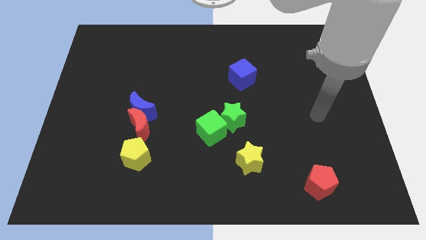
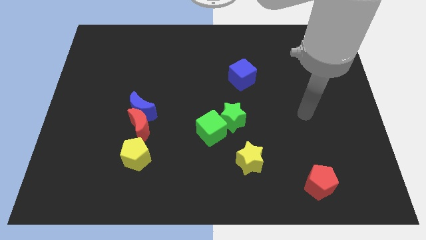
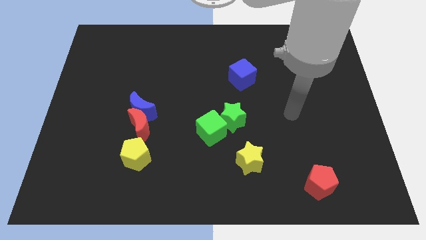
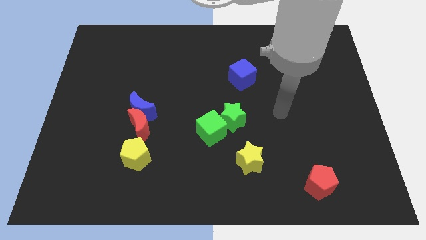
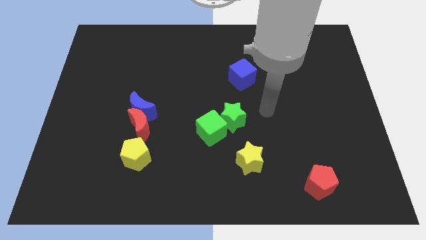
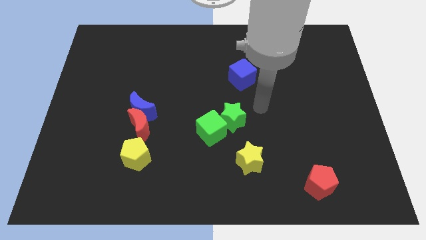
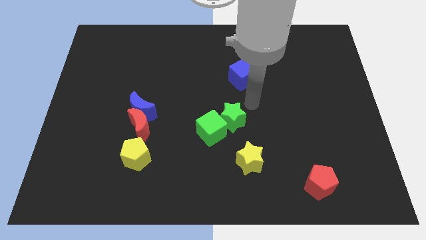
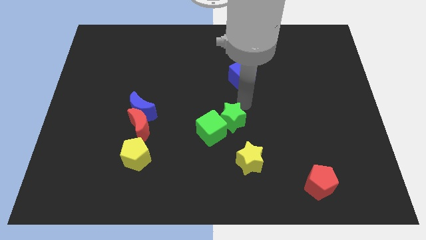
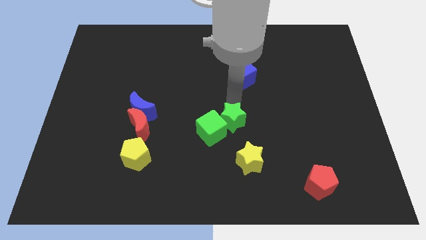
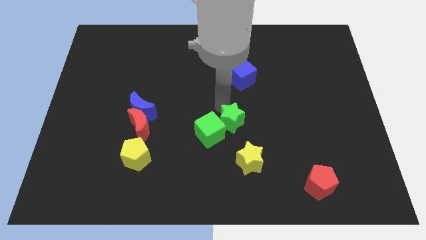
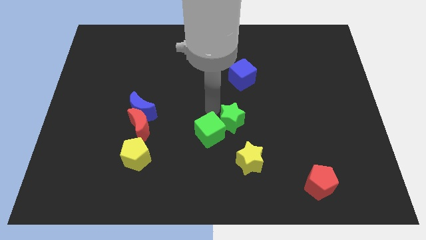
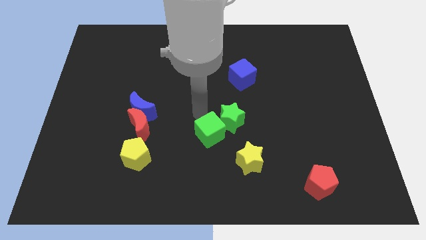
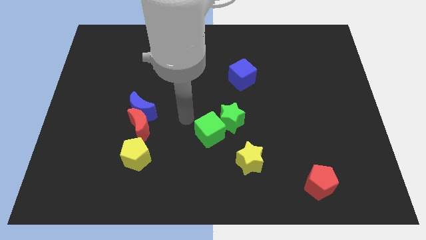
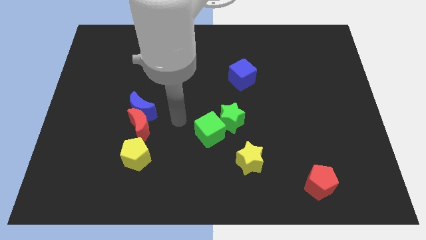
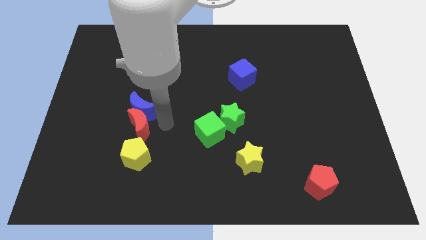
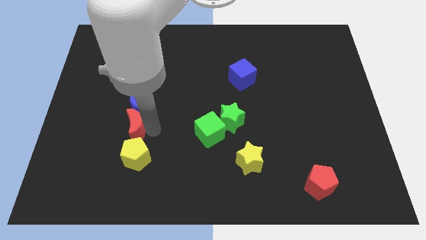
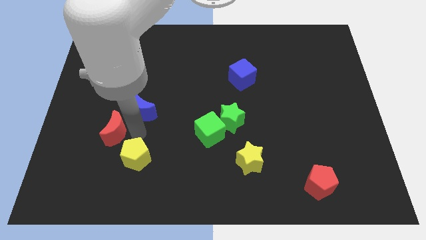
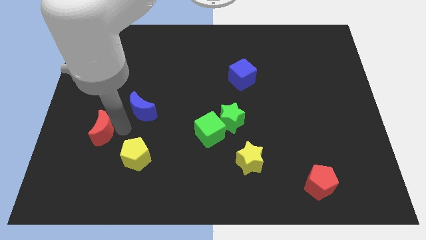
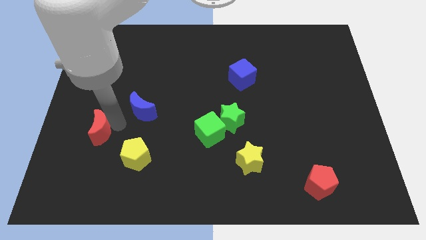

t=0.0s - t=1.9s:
move the blue moon away from the red moon

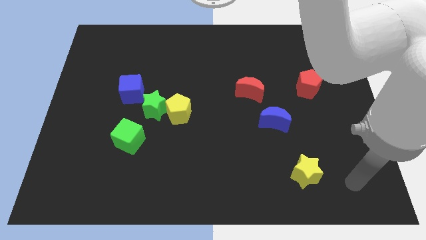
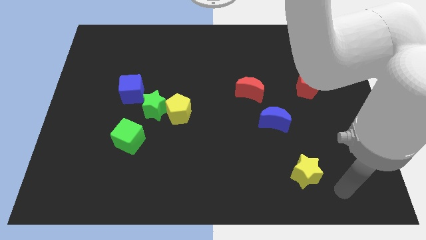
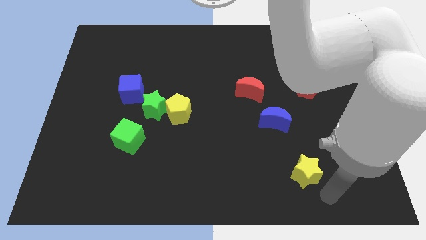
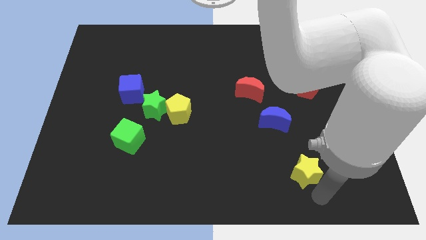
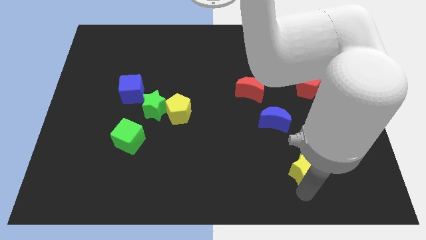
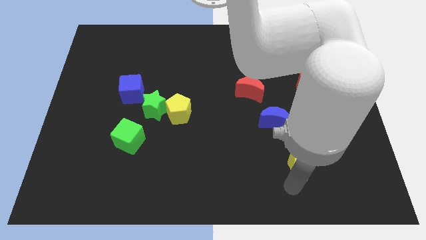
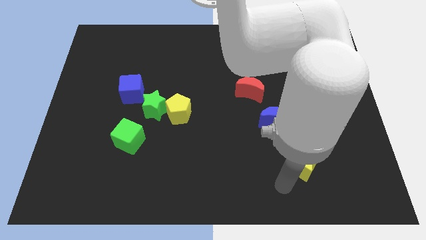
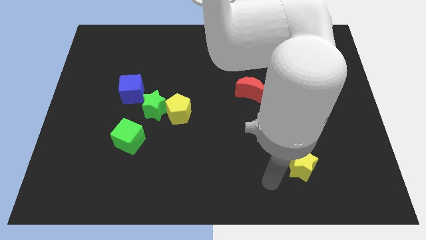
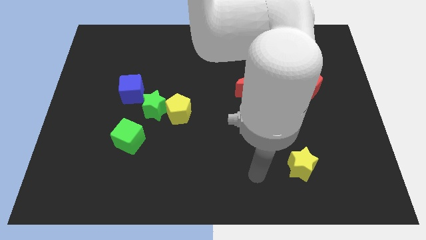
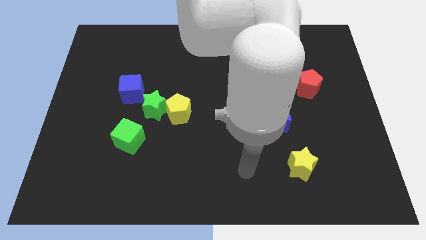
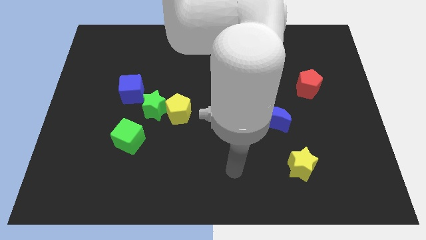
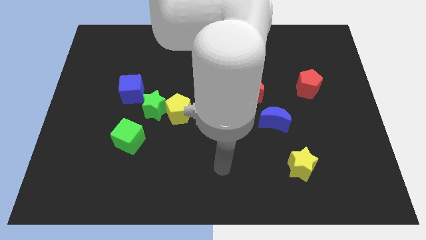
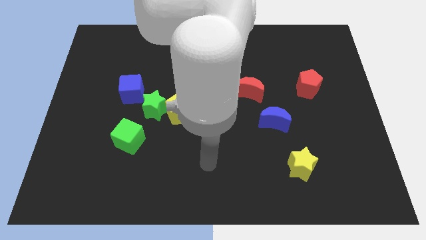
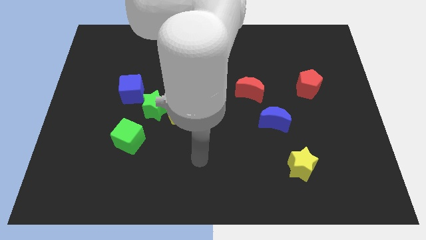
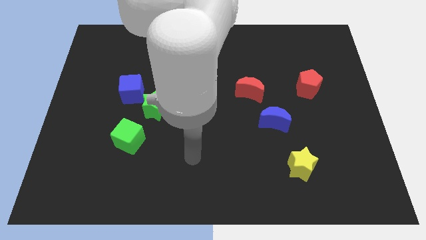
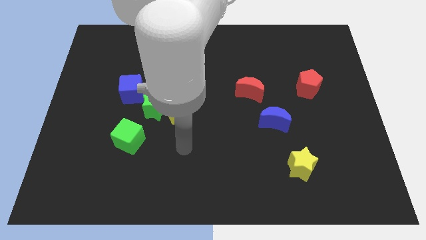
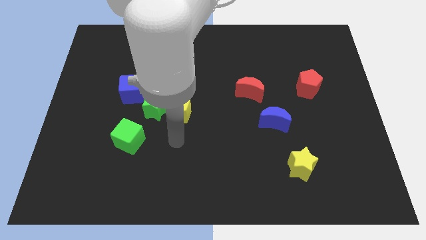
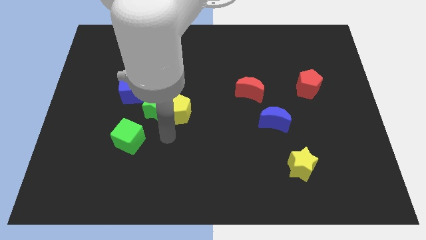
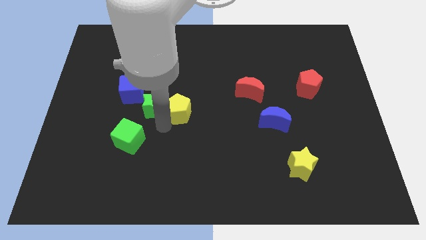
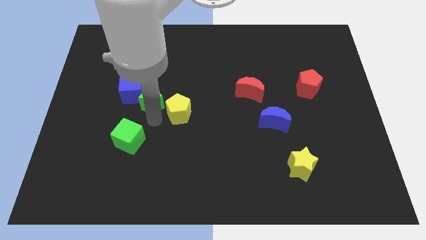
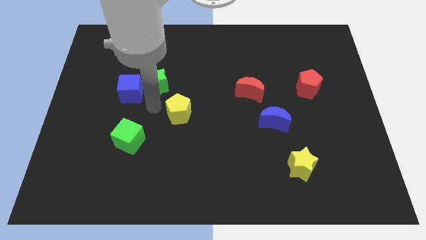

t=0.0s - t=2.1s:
pull the yellow pentagon apart from the green star

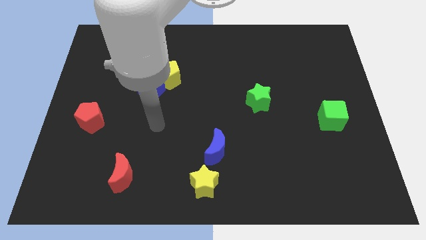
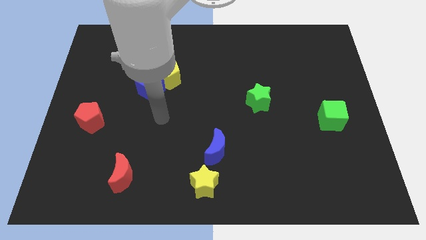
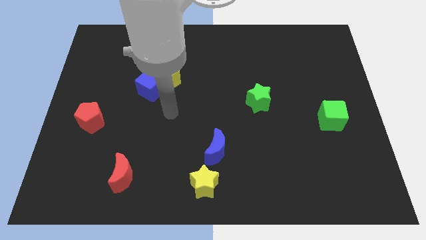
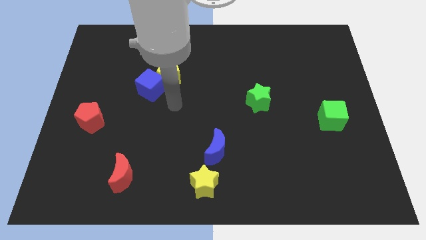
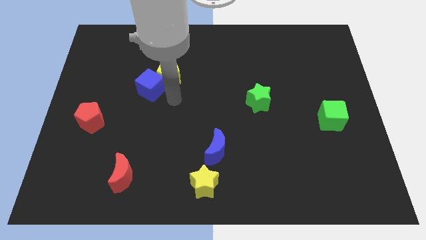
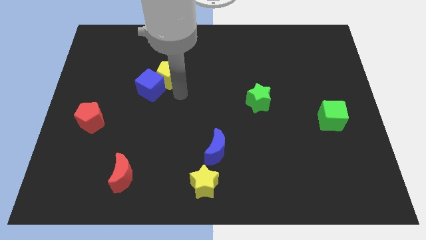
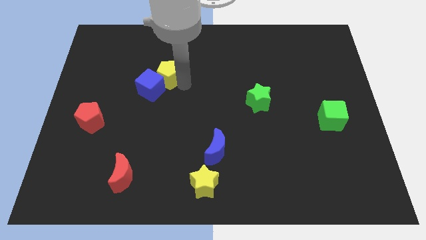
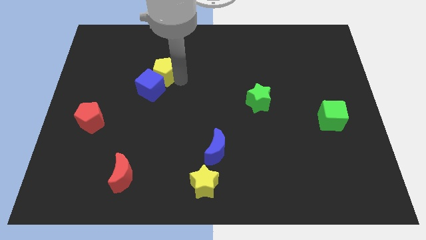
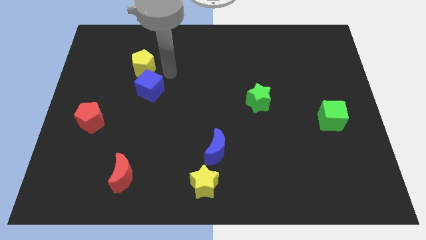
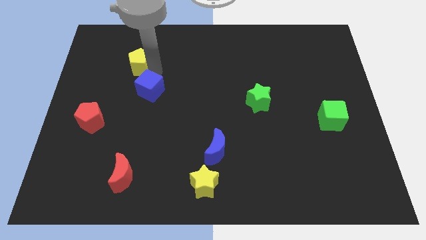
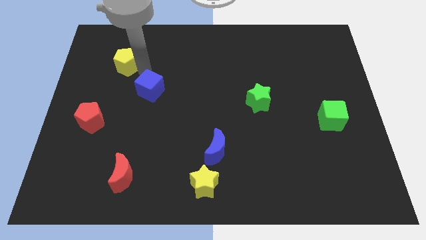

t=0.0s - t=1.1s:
separate the blue cube from the yellow pentagon

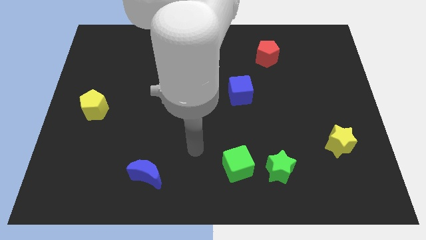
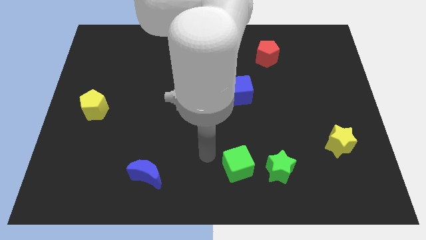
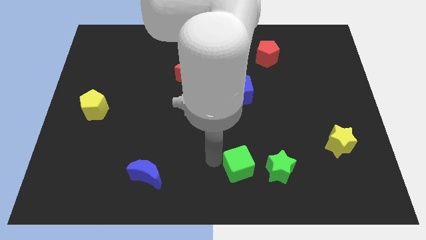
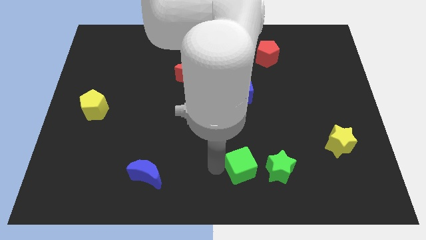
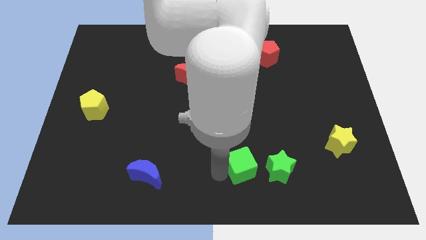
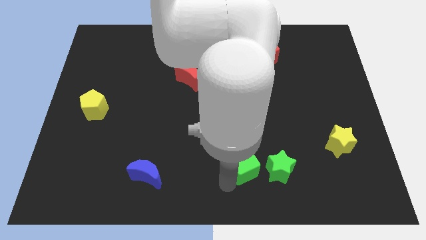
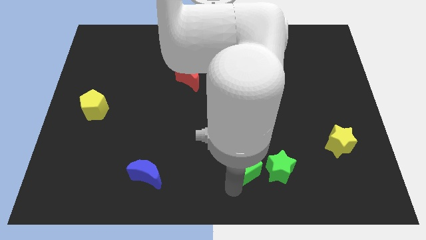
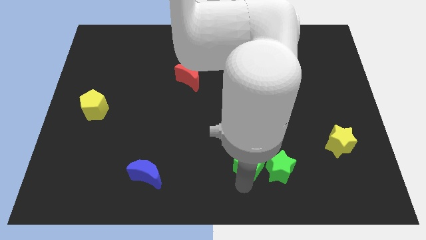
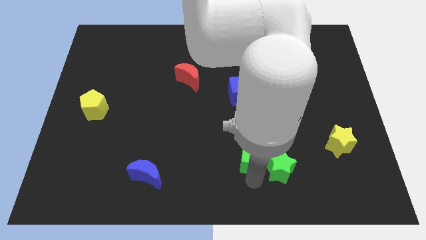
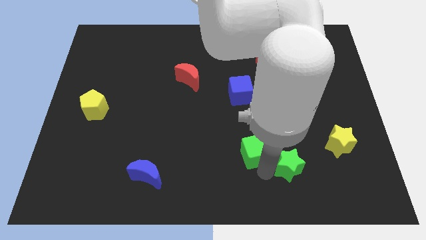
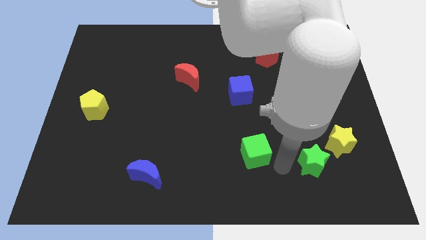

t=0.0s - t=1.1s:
pull the green cube apart from the green star

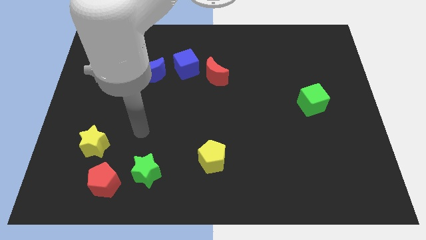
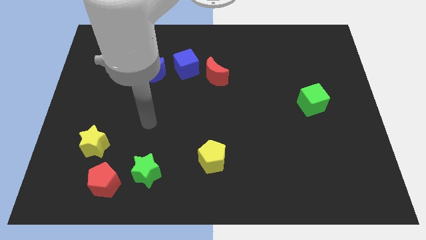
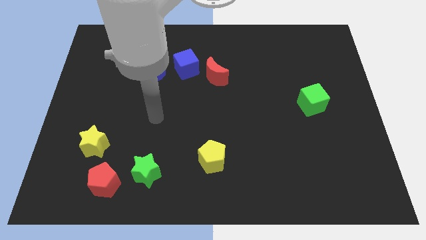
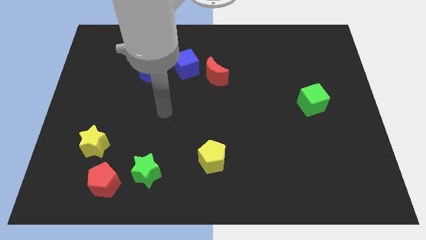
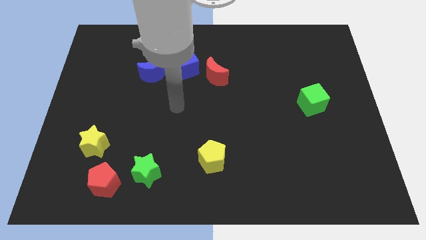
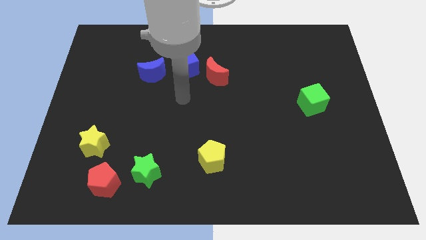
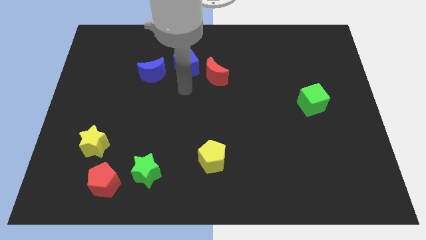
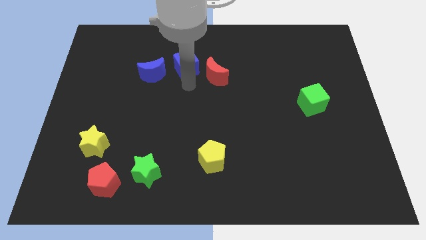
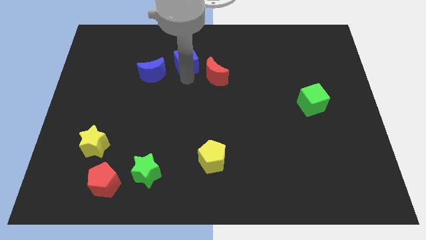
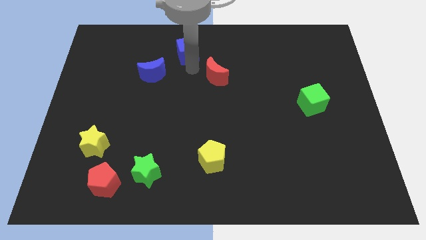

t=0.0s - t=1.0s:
move the red moon away from the blue cube

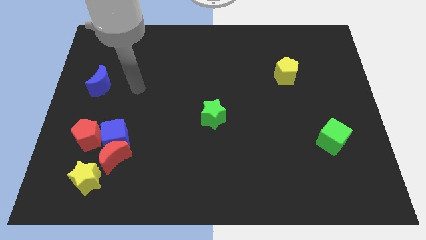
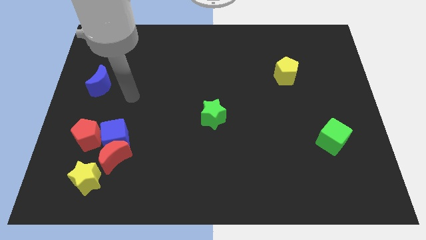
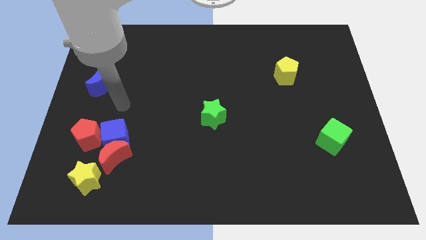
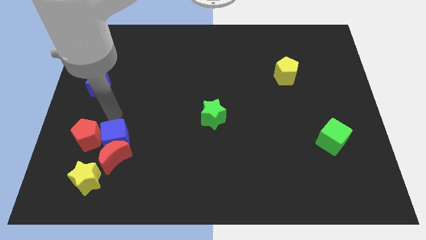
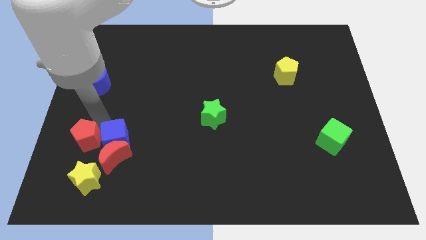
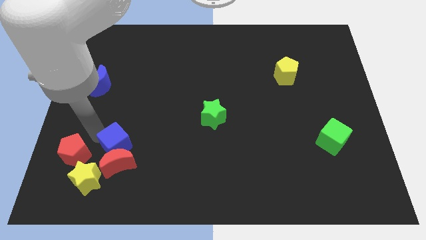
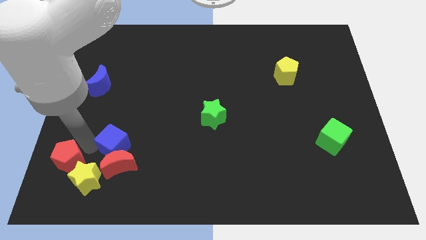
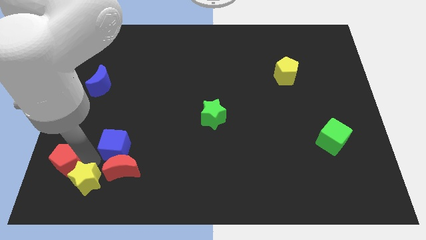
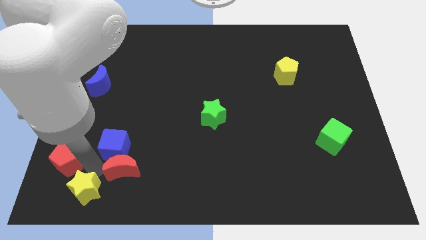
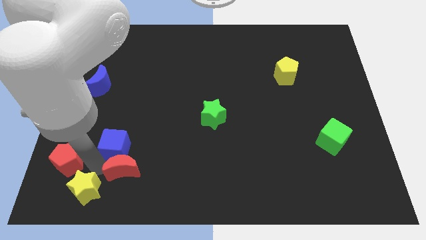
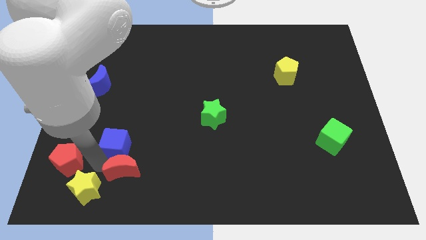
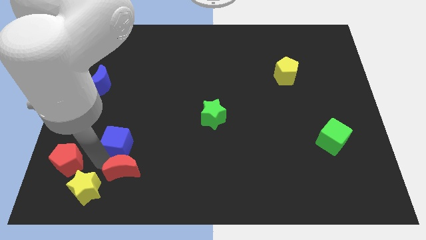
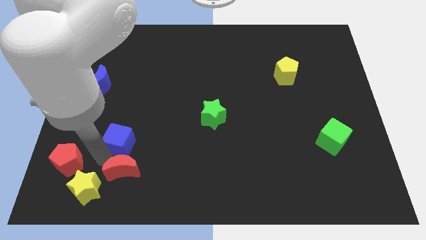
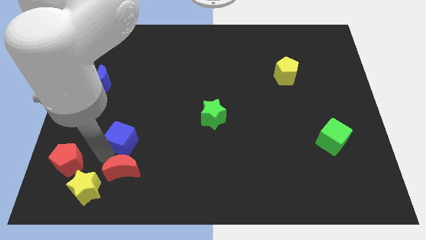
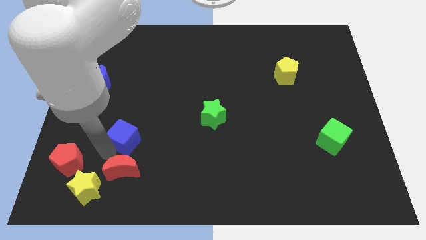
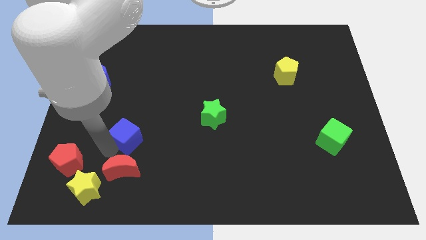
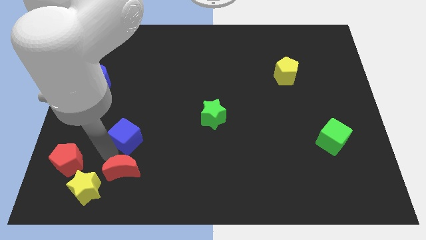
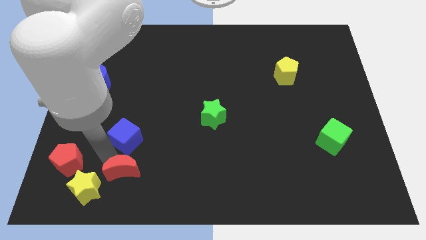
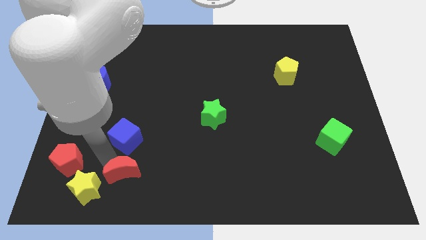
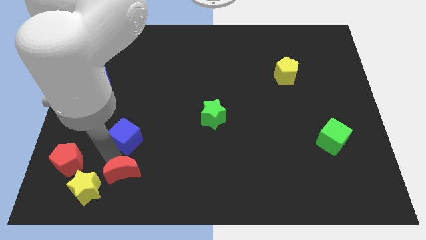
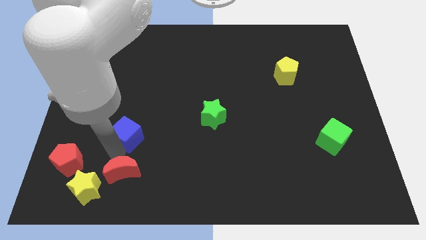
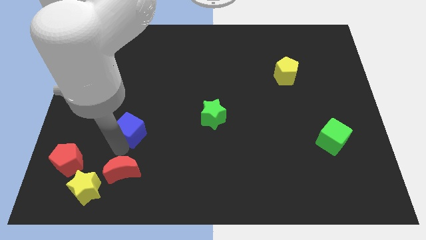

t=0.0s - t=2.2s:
pull the blue cube apart from the red moon and red pentagon
